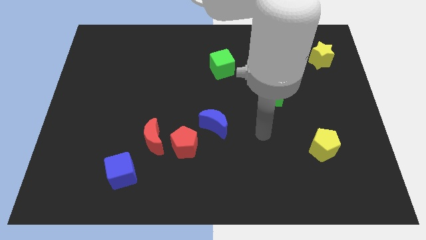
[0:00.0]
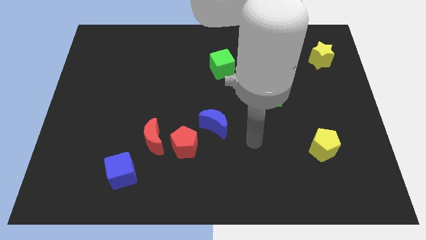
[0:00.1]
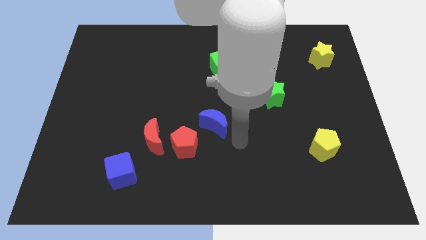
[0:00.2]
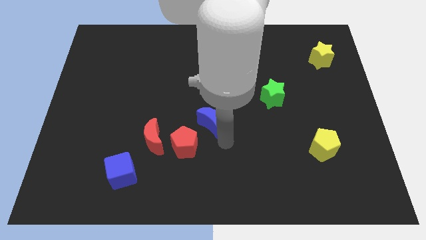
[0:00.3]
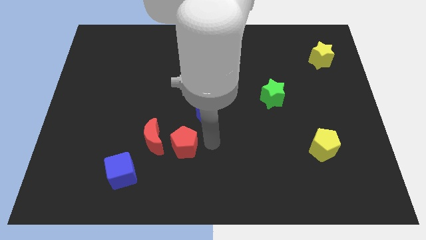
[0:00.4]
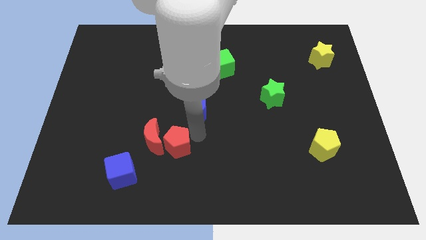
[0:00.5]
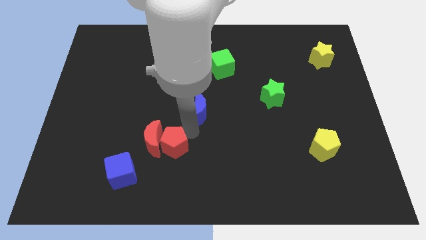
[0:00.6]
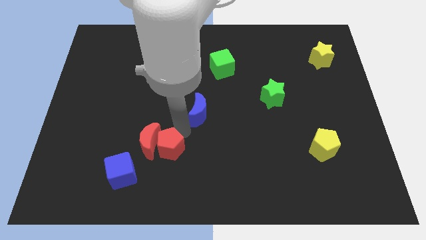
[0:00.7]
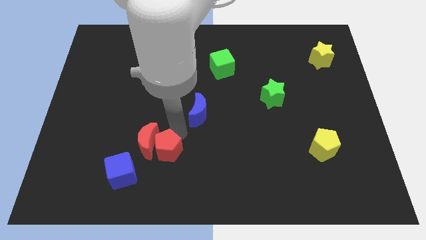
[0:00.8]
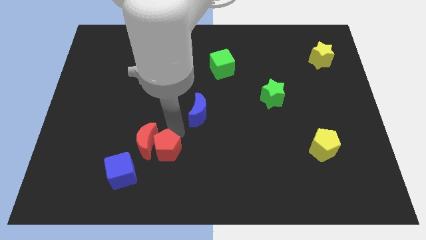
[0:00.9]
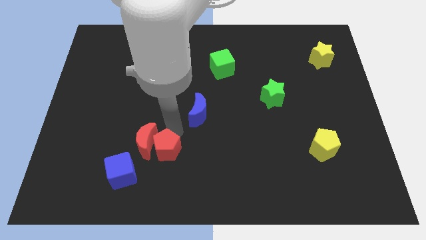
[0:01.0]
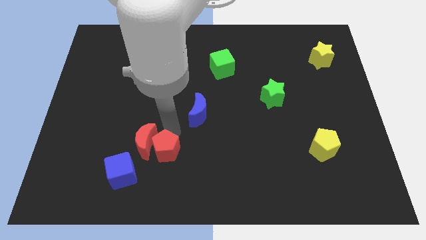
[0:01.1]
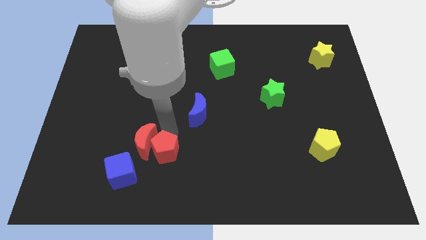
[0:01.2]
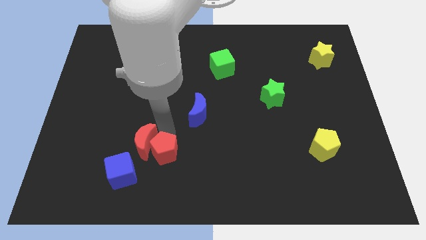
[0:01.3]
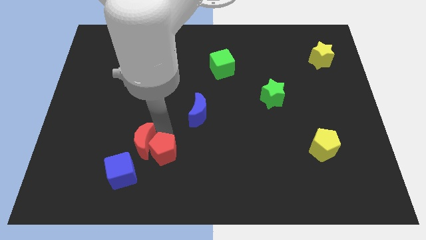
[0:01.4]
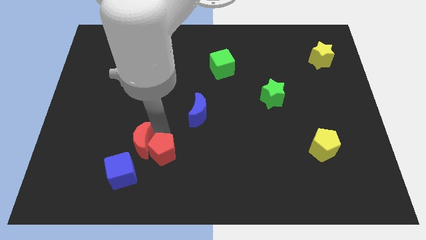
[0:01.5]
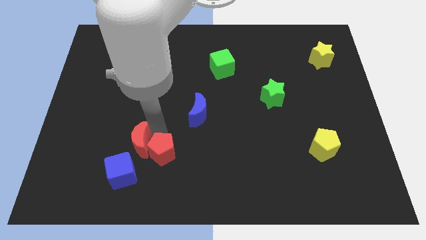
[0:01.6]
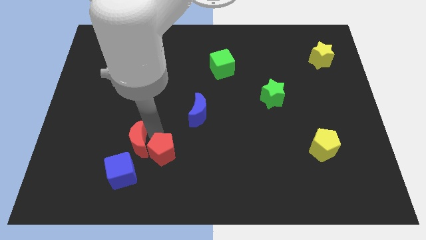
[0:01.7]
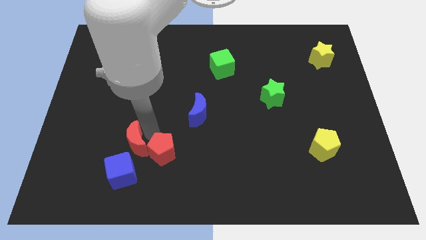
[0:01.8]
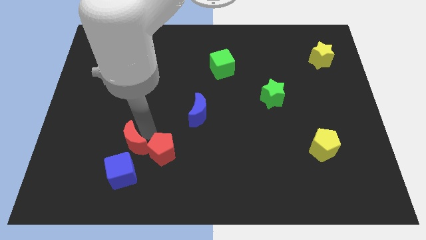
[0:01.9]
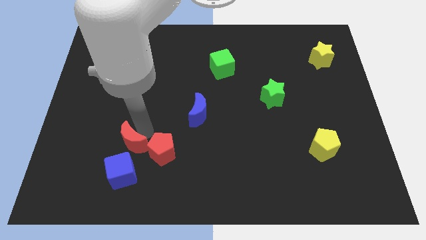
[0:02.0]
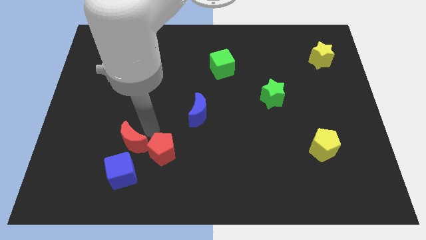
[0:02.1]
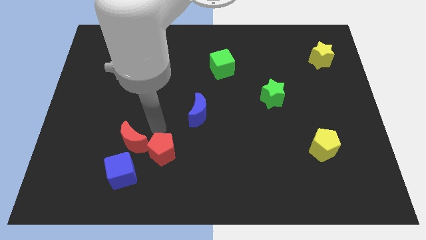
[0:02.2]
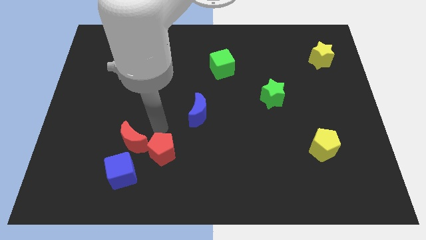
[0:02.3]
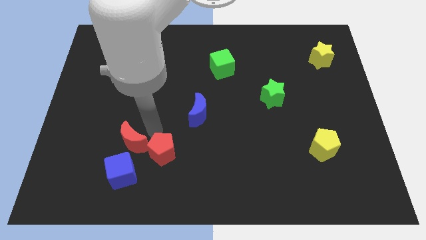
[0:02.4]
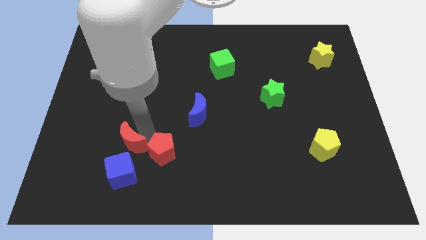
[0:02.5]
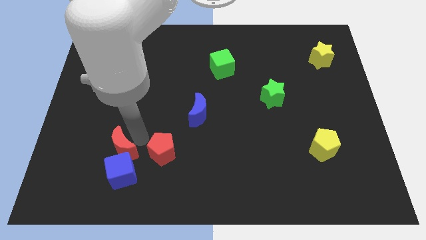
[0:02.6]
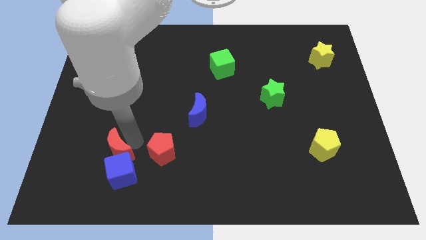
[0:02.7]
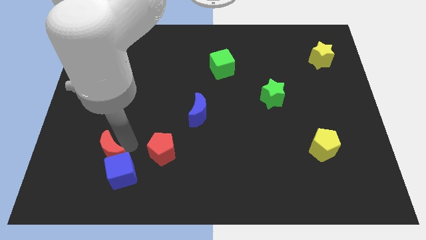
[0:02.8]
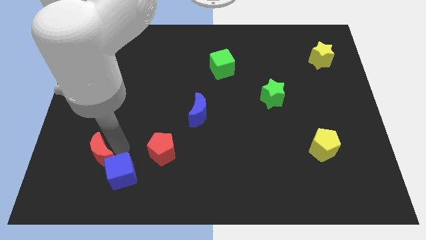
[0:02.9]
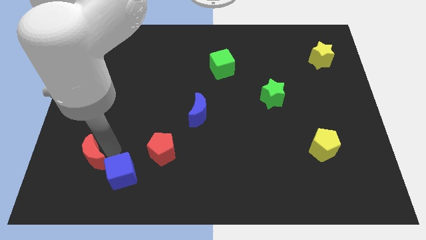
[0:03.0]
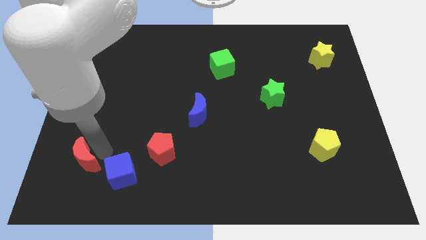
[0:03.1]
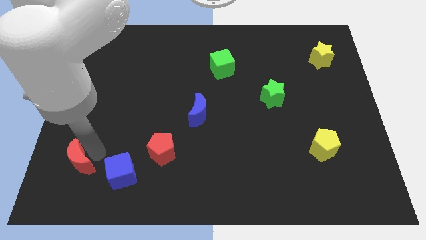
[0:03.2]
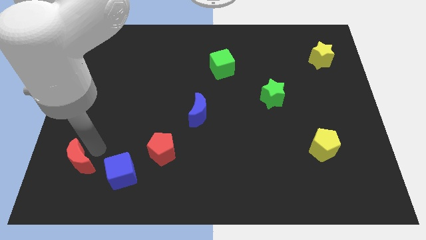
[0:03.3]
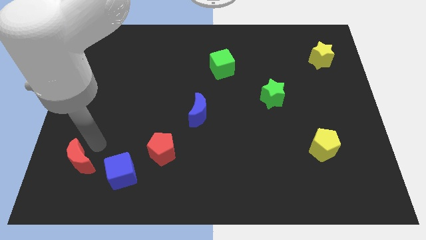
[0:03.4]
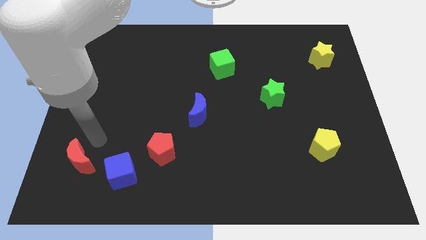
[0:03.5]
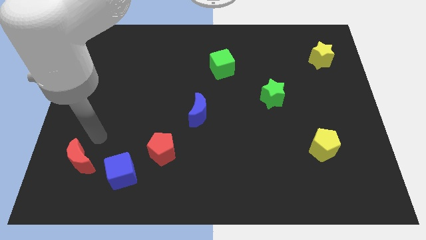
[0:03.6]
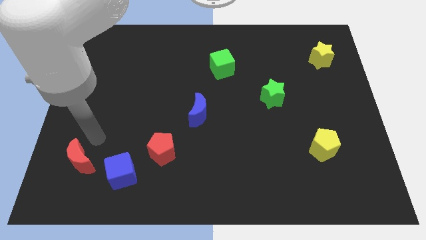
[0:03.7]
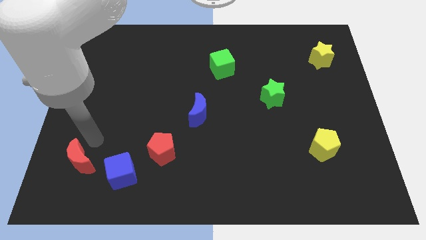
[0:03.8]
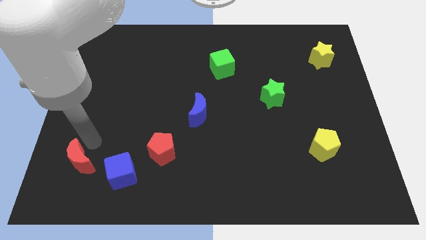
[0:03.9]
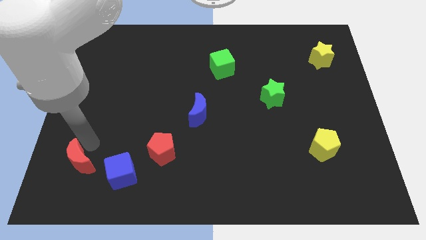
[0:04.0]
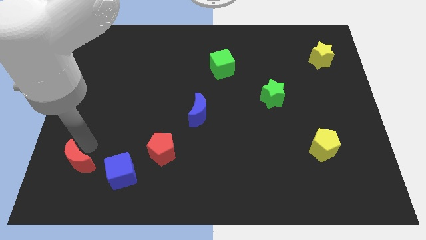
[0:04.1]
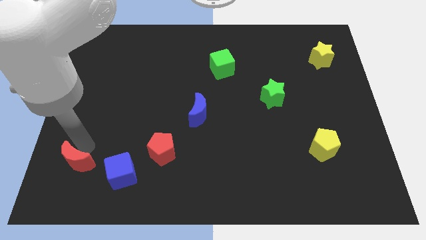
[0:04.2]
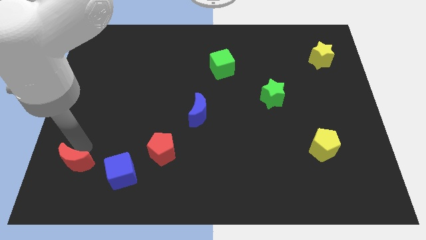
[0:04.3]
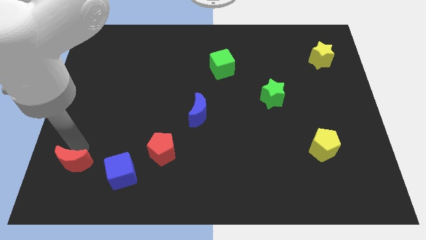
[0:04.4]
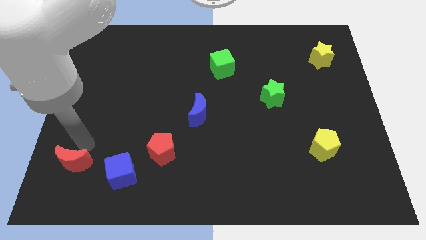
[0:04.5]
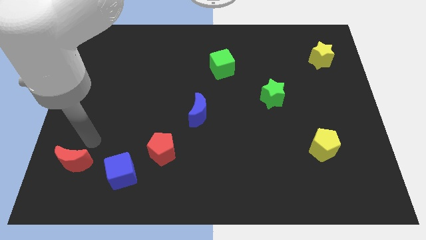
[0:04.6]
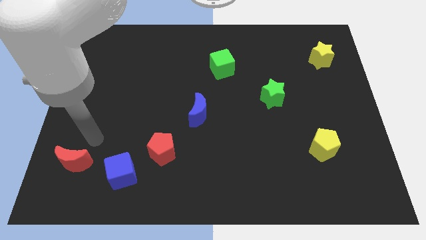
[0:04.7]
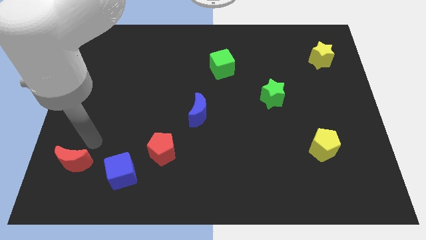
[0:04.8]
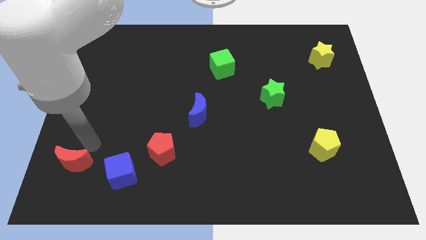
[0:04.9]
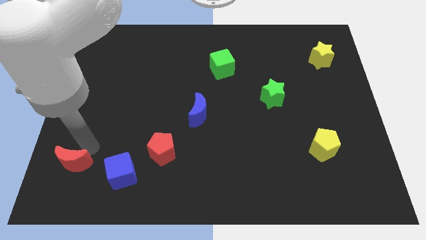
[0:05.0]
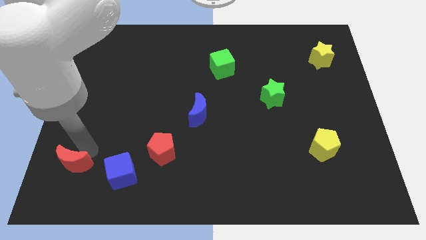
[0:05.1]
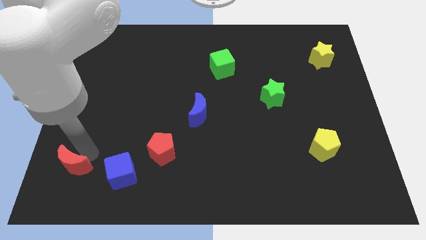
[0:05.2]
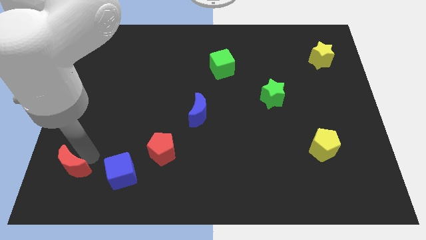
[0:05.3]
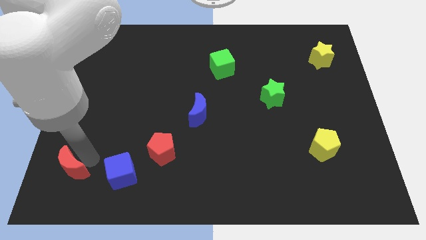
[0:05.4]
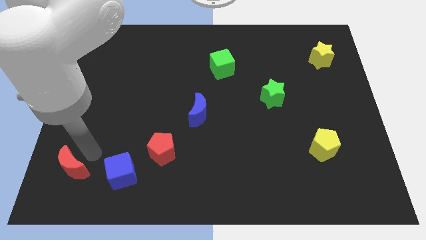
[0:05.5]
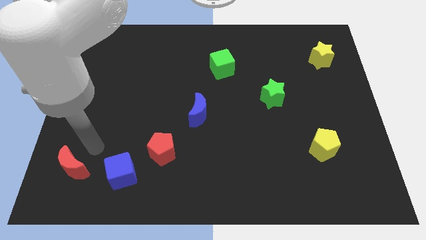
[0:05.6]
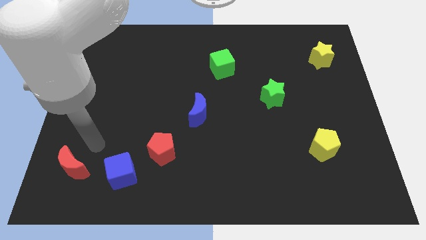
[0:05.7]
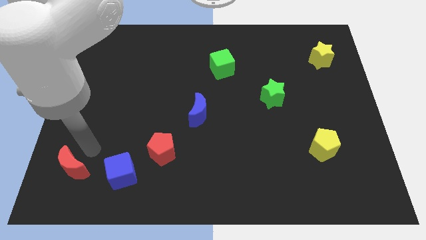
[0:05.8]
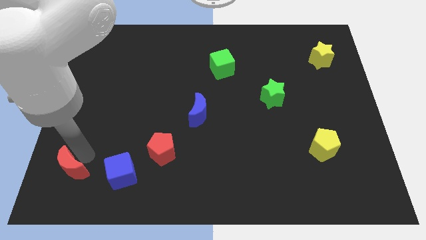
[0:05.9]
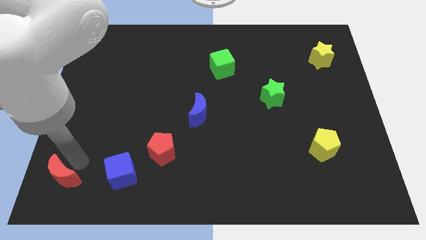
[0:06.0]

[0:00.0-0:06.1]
move the red moon to the bottom left
